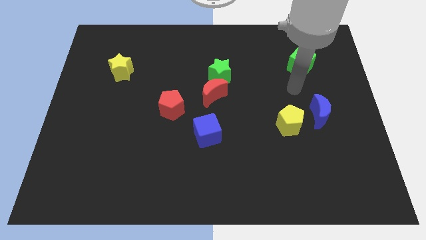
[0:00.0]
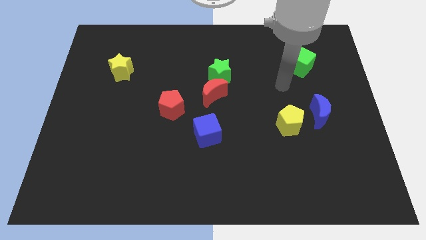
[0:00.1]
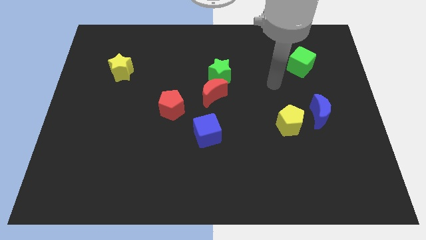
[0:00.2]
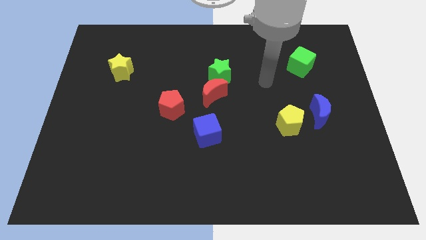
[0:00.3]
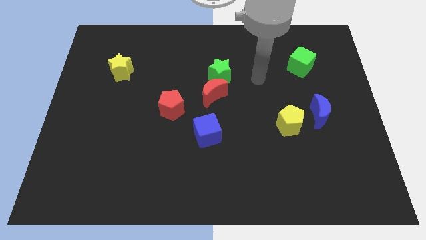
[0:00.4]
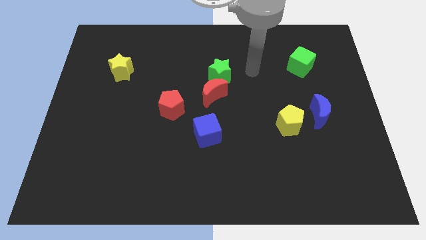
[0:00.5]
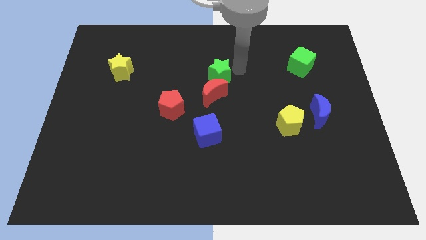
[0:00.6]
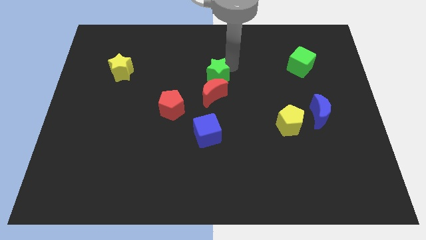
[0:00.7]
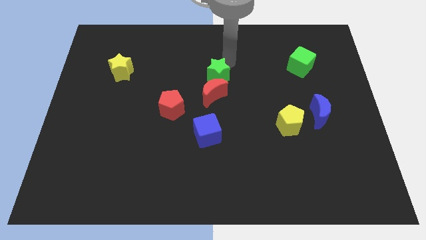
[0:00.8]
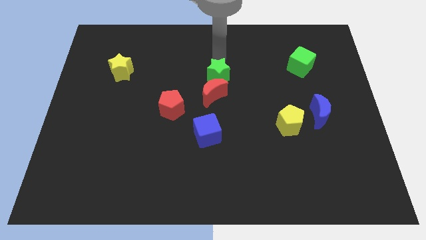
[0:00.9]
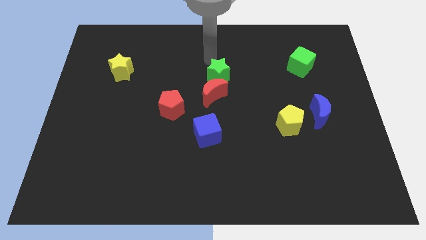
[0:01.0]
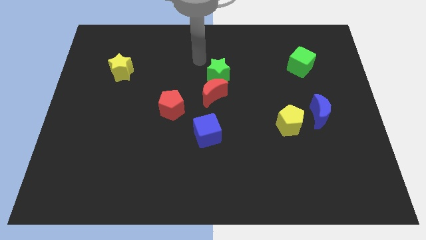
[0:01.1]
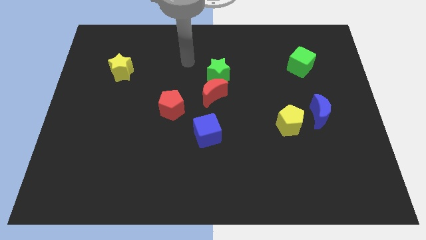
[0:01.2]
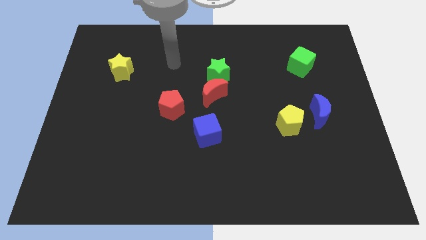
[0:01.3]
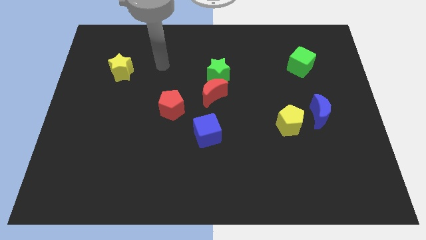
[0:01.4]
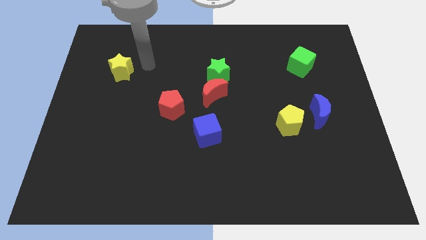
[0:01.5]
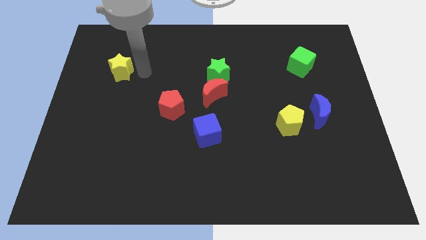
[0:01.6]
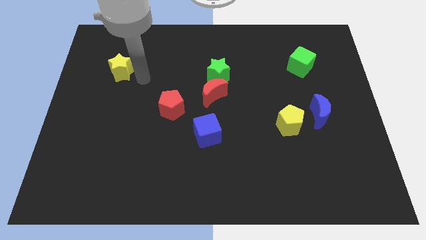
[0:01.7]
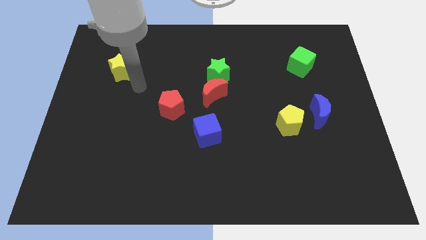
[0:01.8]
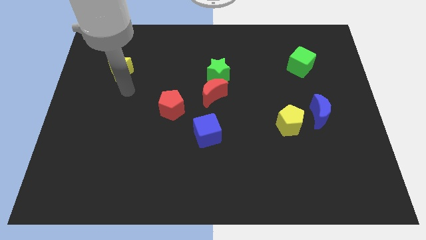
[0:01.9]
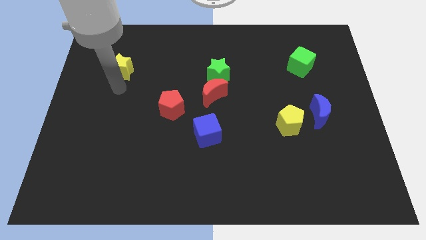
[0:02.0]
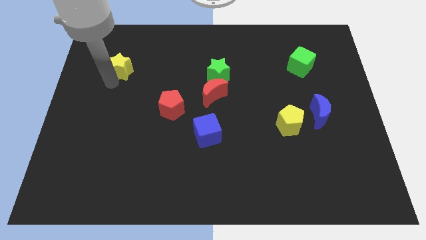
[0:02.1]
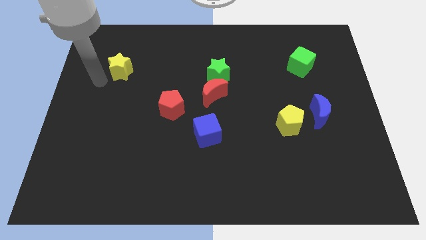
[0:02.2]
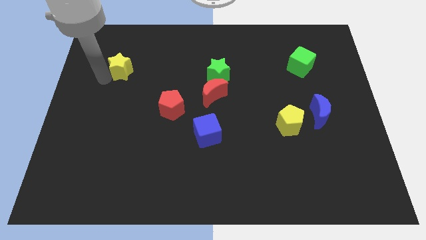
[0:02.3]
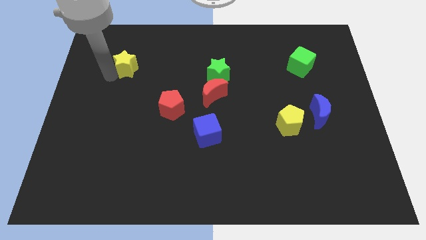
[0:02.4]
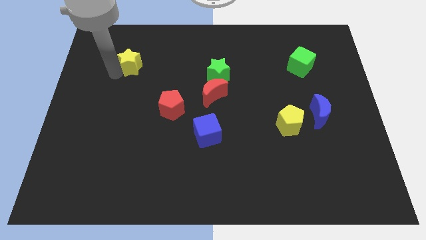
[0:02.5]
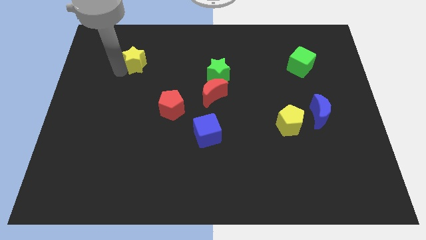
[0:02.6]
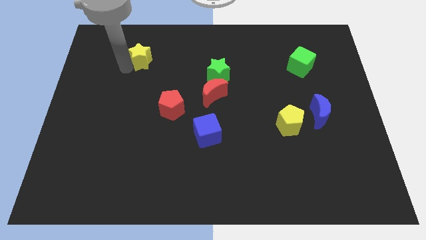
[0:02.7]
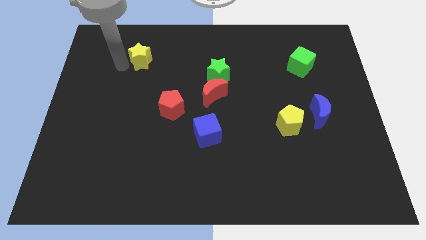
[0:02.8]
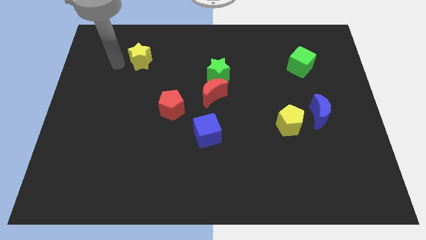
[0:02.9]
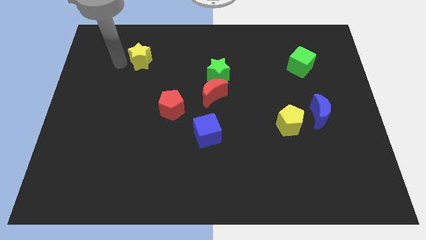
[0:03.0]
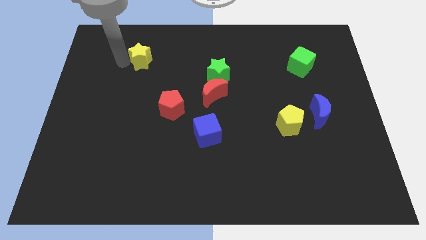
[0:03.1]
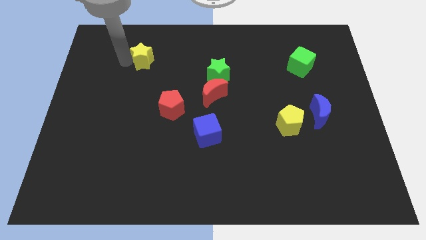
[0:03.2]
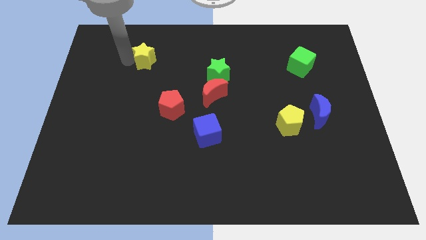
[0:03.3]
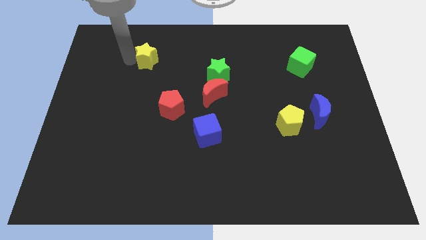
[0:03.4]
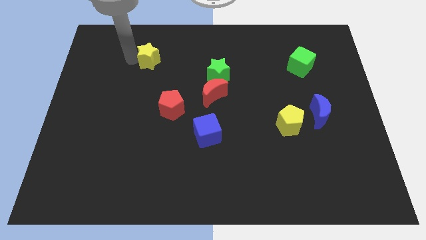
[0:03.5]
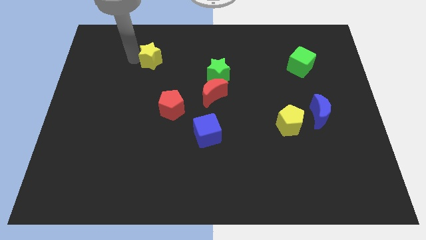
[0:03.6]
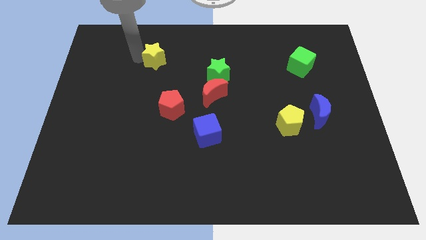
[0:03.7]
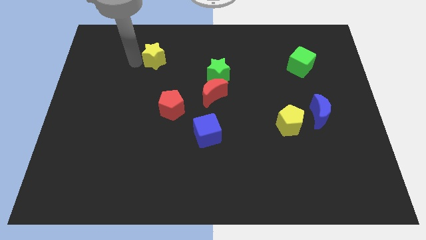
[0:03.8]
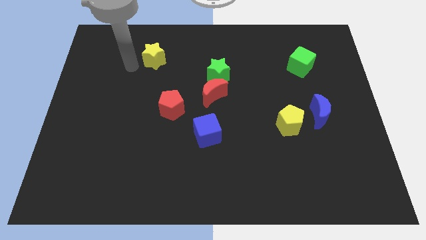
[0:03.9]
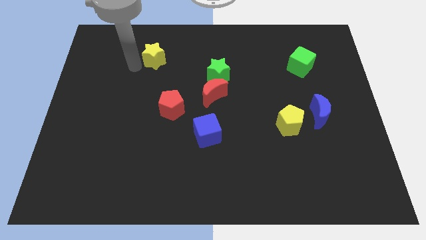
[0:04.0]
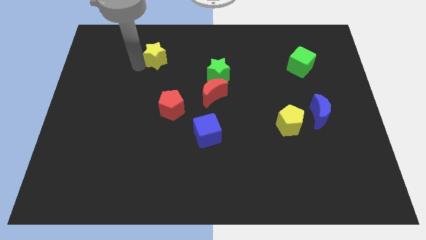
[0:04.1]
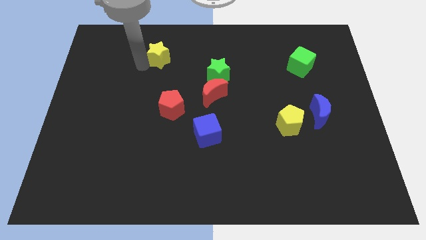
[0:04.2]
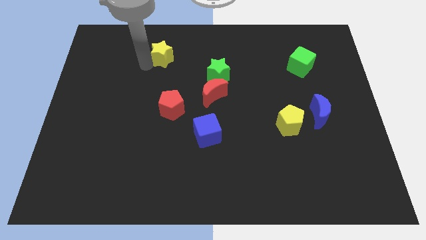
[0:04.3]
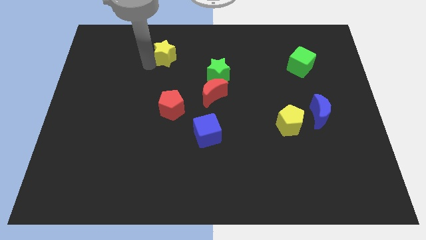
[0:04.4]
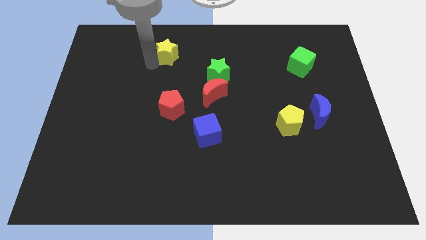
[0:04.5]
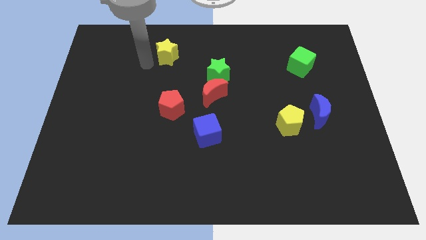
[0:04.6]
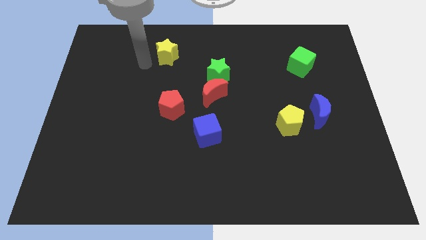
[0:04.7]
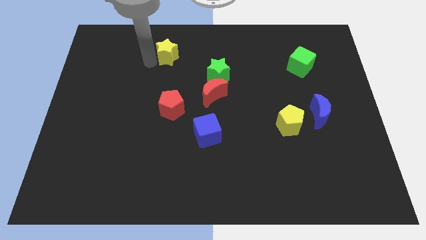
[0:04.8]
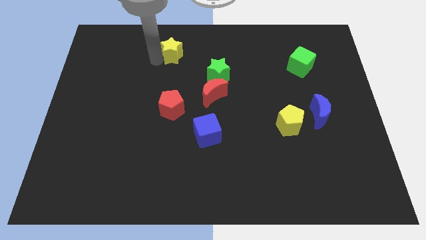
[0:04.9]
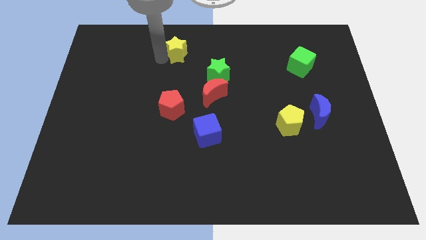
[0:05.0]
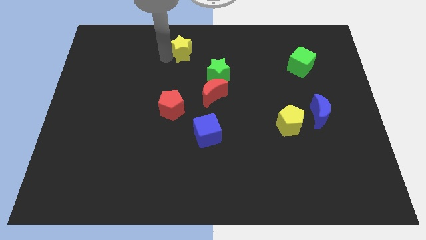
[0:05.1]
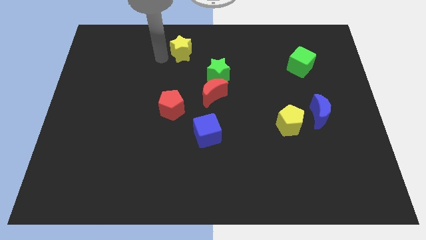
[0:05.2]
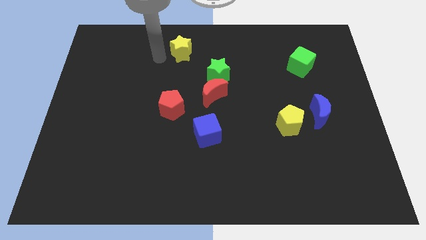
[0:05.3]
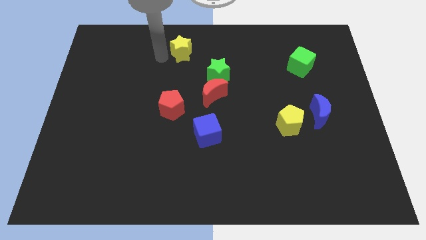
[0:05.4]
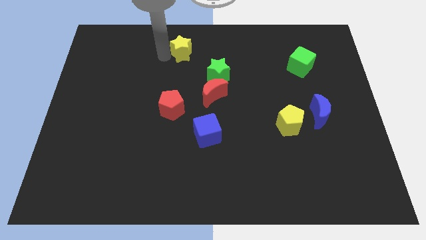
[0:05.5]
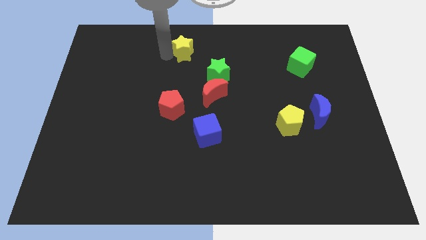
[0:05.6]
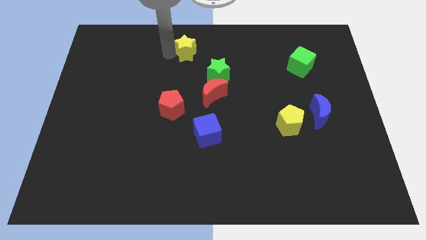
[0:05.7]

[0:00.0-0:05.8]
move the yellow star to the top
